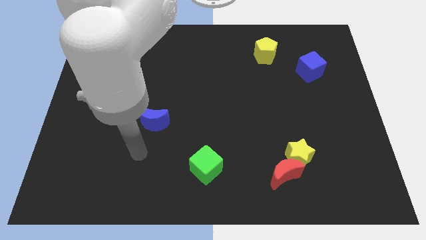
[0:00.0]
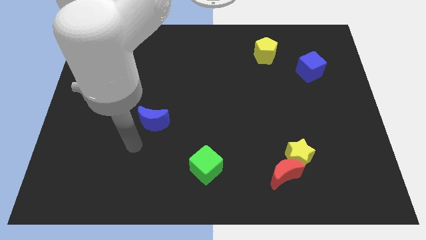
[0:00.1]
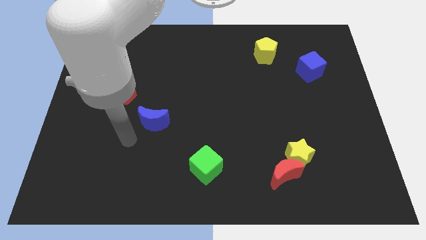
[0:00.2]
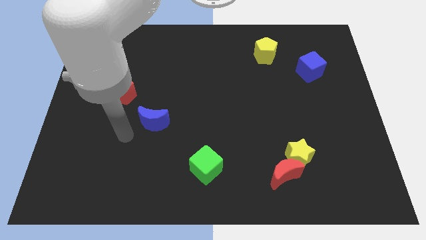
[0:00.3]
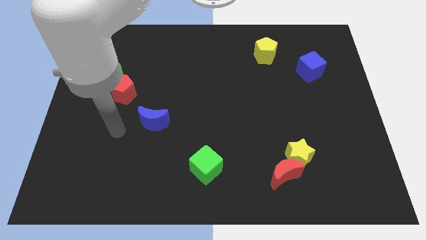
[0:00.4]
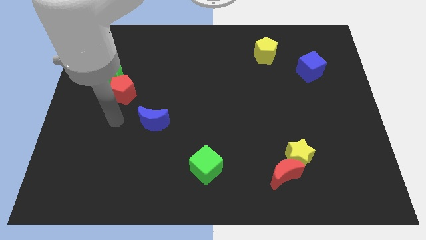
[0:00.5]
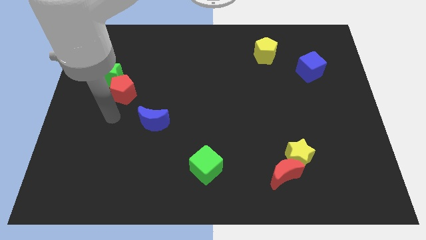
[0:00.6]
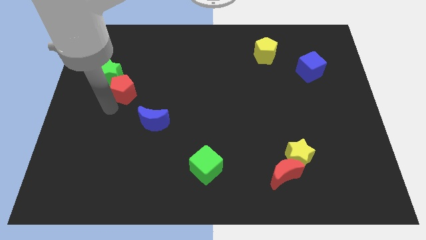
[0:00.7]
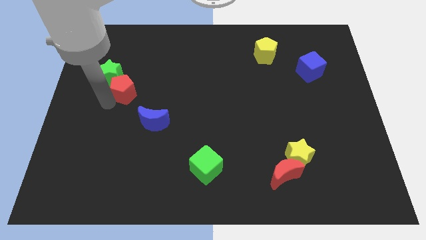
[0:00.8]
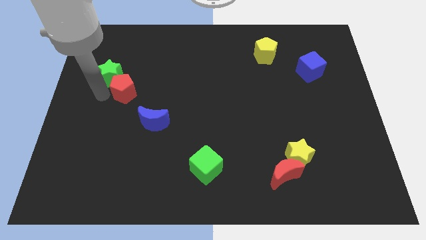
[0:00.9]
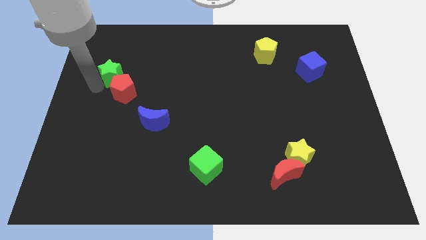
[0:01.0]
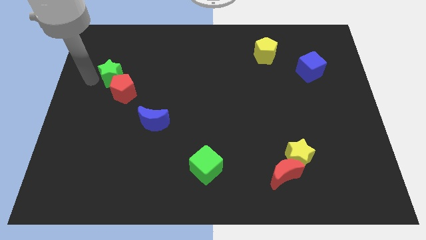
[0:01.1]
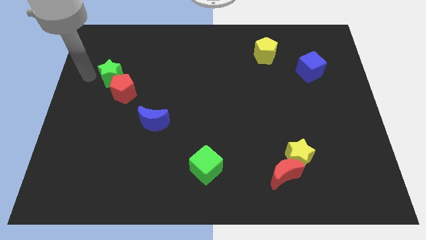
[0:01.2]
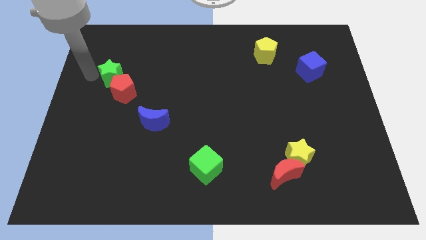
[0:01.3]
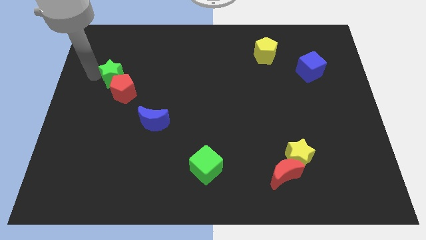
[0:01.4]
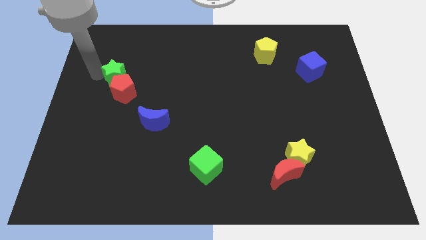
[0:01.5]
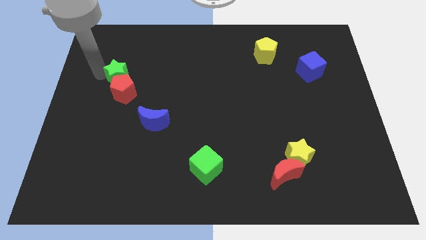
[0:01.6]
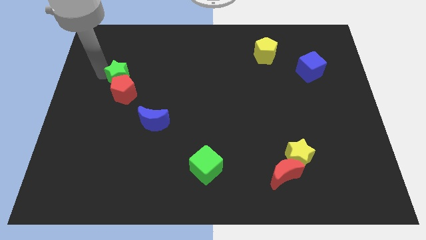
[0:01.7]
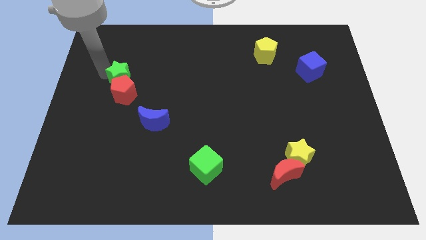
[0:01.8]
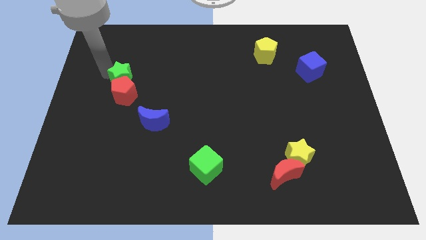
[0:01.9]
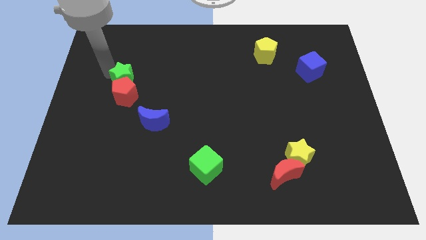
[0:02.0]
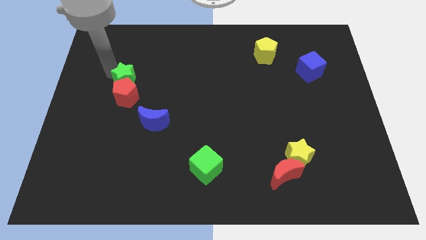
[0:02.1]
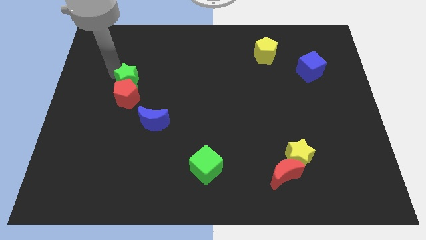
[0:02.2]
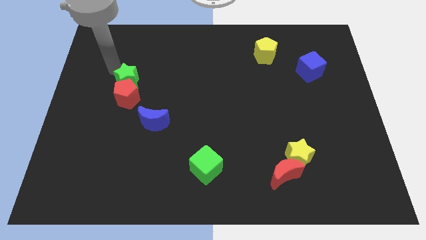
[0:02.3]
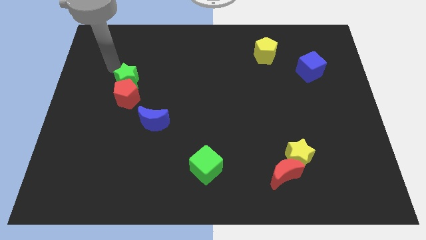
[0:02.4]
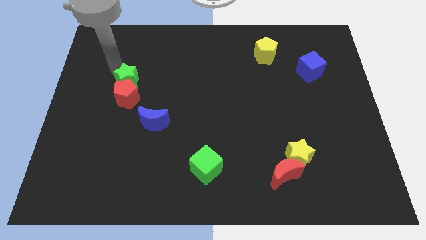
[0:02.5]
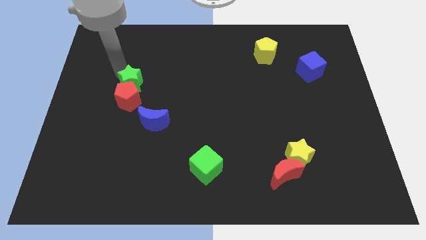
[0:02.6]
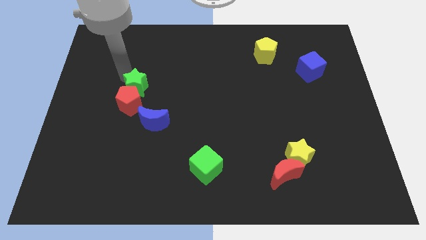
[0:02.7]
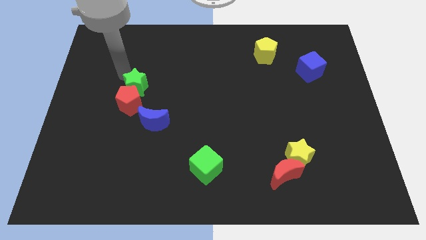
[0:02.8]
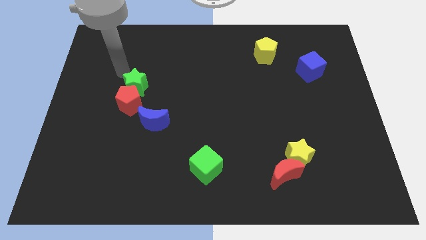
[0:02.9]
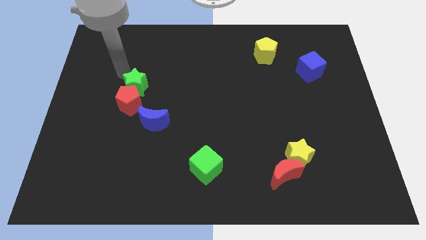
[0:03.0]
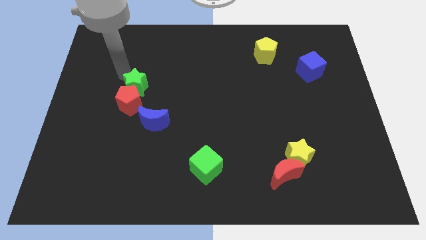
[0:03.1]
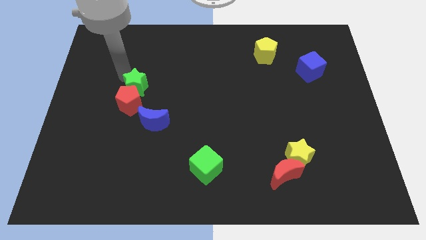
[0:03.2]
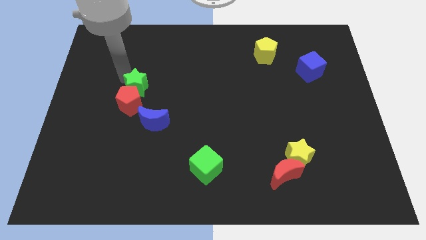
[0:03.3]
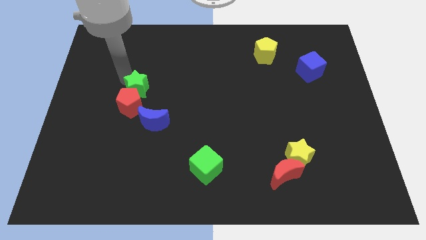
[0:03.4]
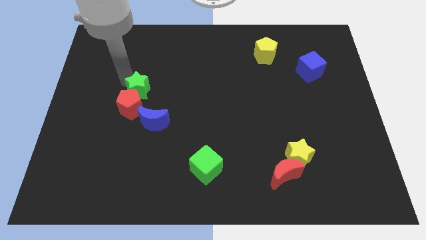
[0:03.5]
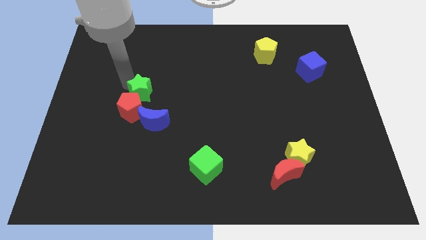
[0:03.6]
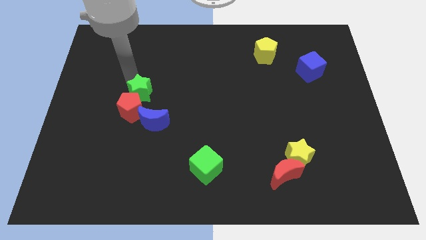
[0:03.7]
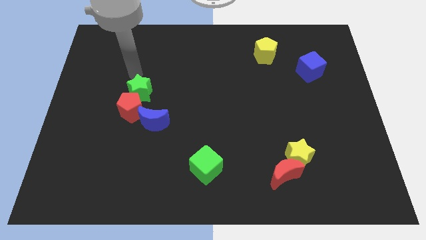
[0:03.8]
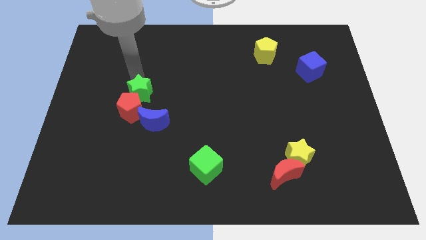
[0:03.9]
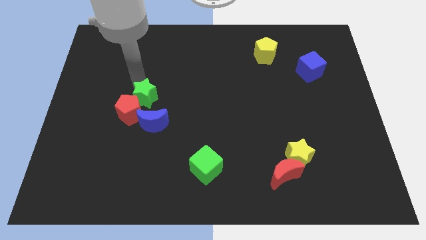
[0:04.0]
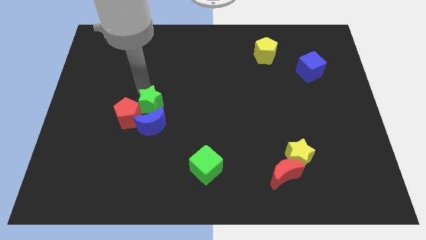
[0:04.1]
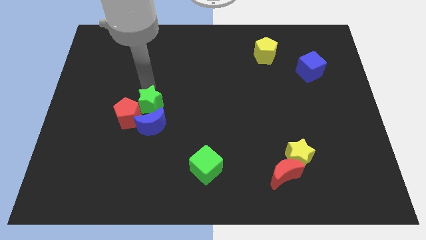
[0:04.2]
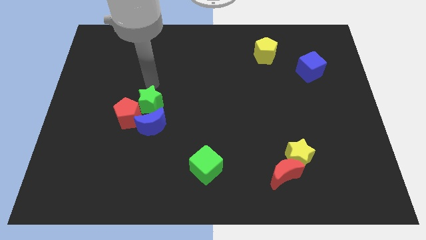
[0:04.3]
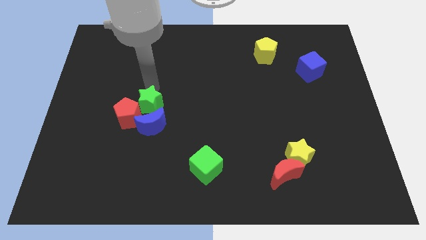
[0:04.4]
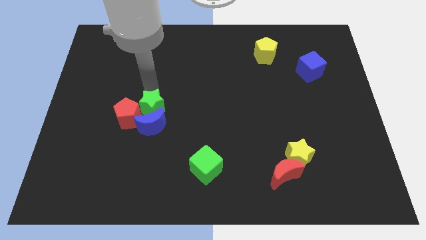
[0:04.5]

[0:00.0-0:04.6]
put the green star to the blue moon

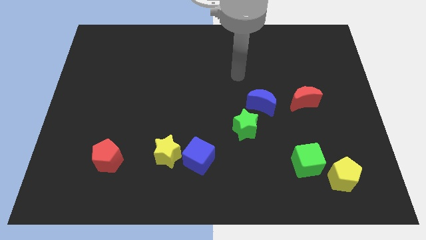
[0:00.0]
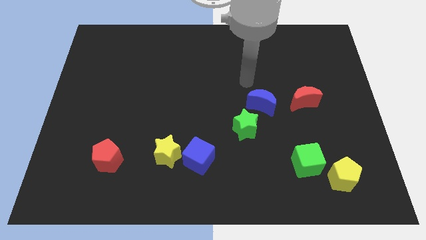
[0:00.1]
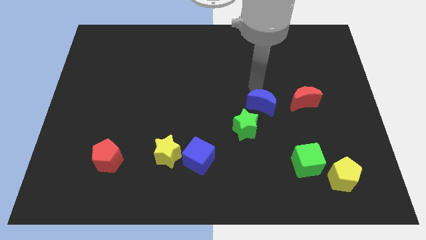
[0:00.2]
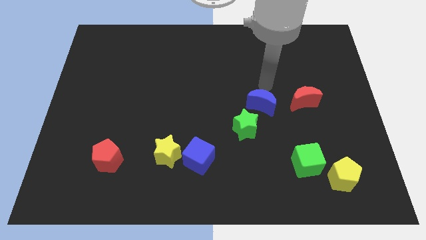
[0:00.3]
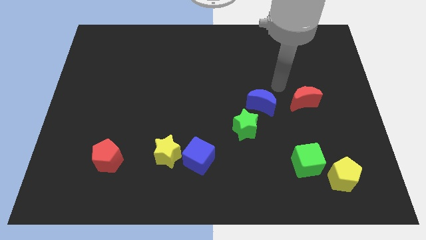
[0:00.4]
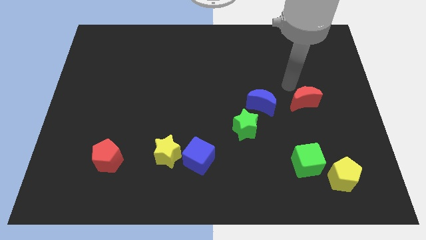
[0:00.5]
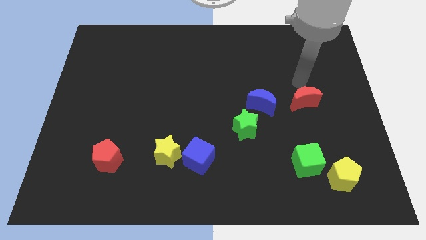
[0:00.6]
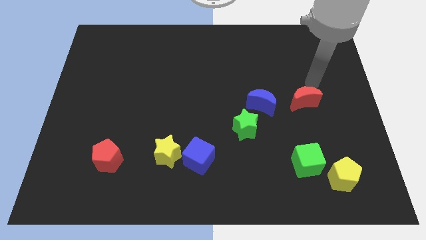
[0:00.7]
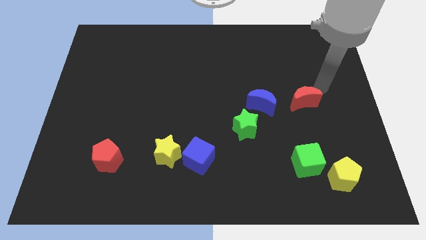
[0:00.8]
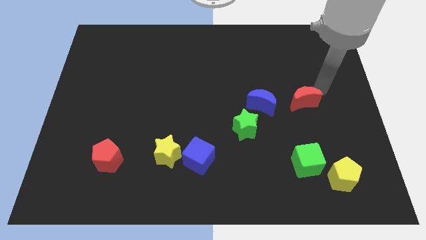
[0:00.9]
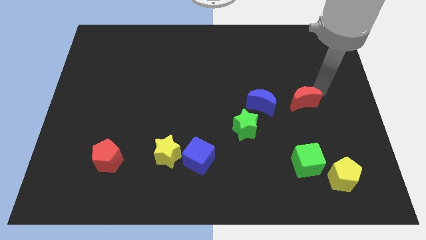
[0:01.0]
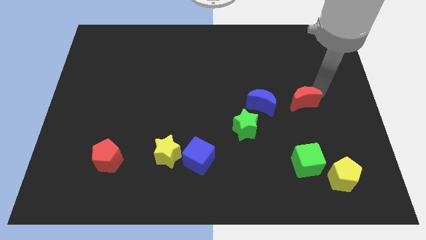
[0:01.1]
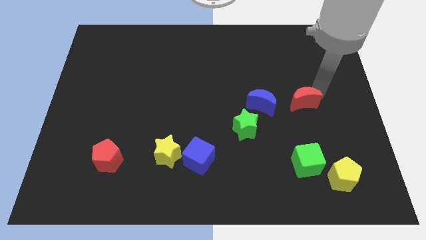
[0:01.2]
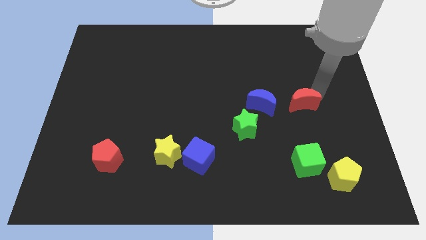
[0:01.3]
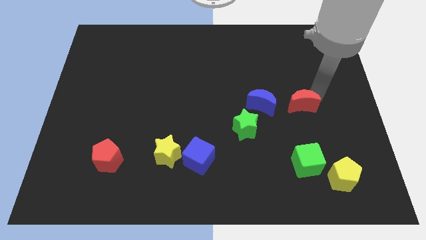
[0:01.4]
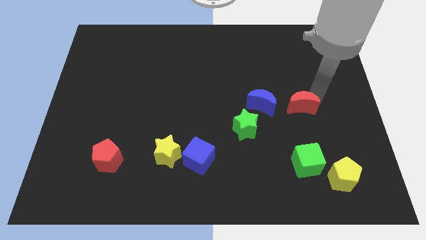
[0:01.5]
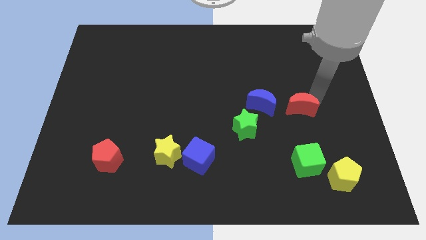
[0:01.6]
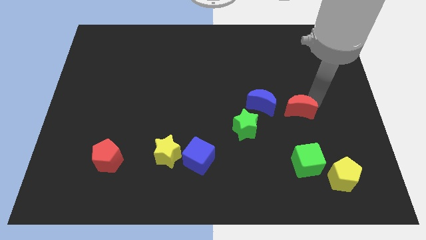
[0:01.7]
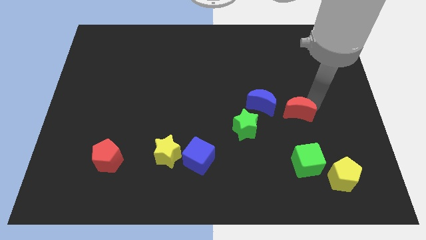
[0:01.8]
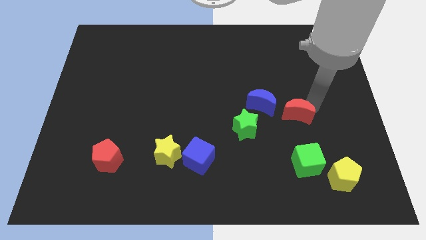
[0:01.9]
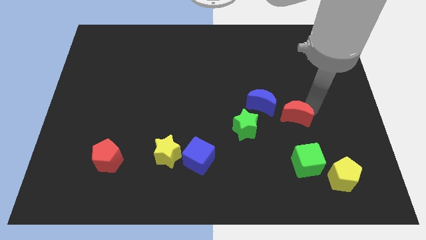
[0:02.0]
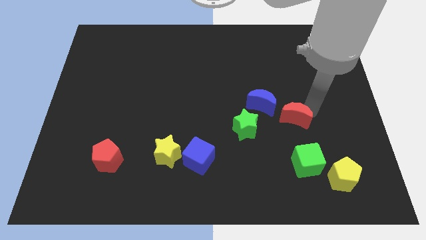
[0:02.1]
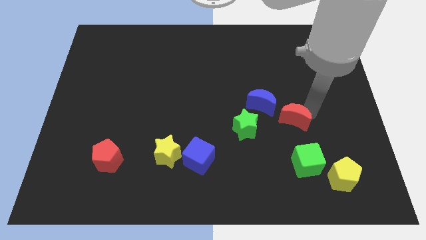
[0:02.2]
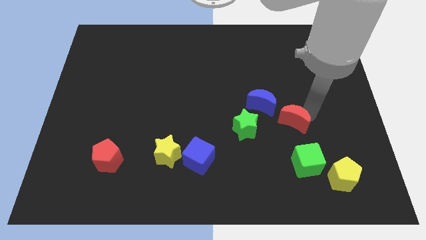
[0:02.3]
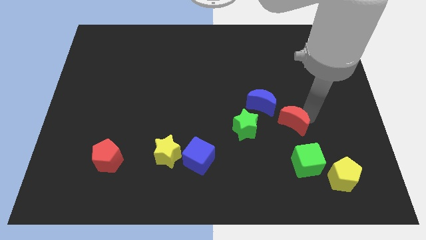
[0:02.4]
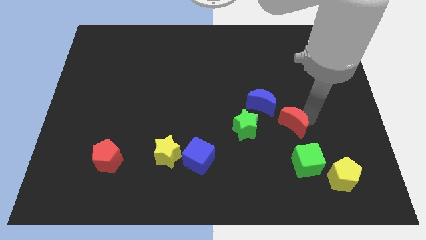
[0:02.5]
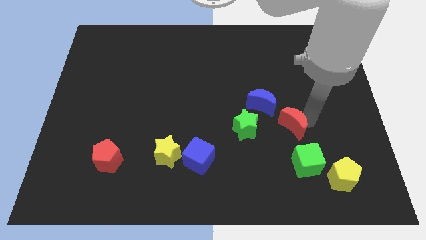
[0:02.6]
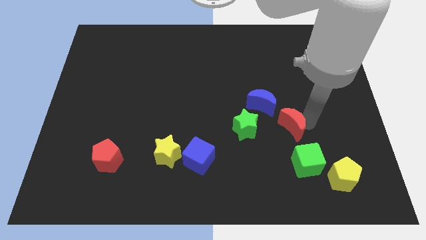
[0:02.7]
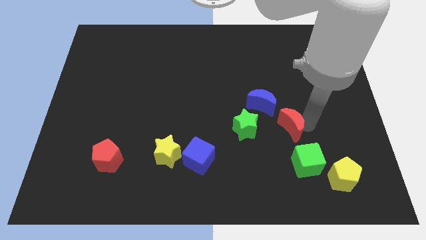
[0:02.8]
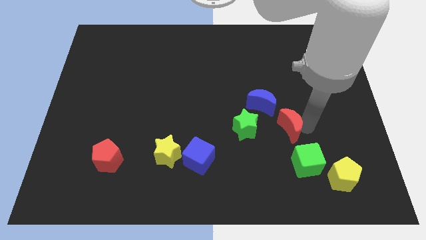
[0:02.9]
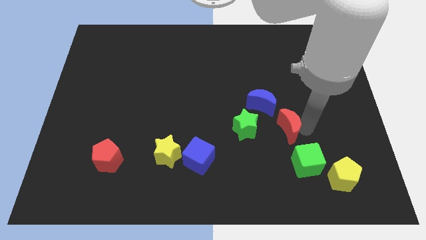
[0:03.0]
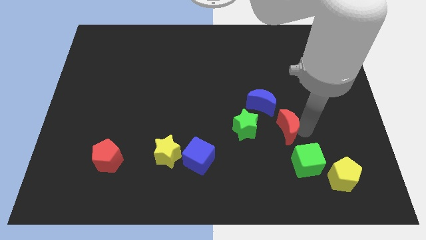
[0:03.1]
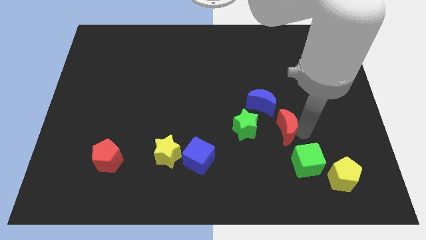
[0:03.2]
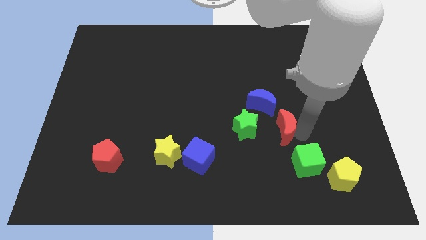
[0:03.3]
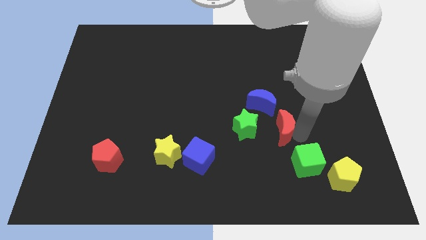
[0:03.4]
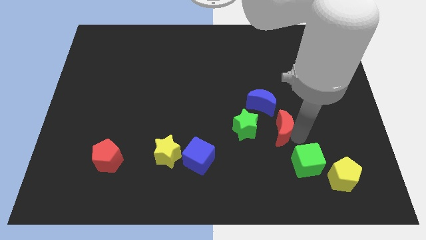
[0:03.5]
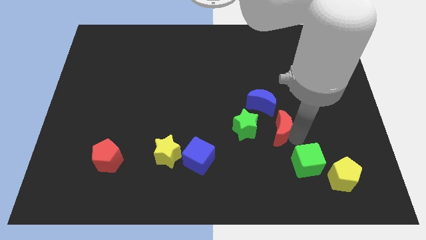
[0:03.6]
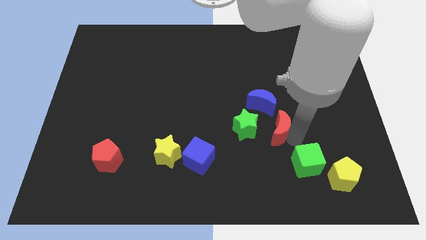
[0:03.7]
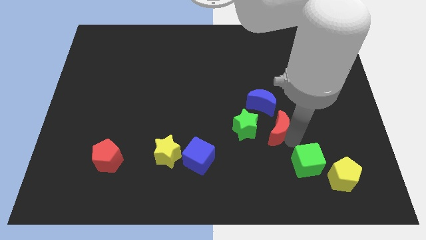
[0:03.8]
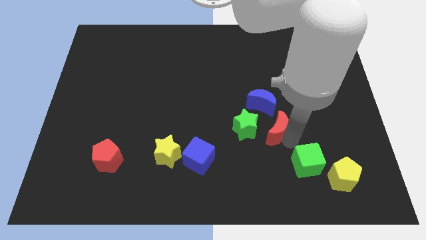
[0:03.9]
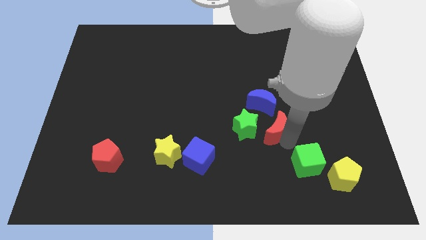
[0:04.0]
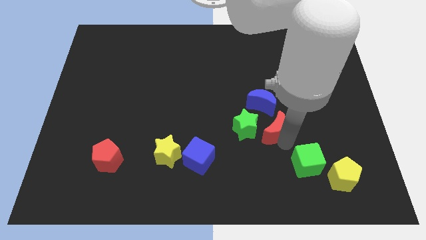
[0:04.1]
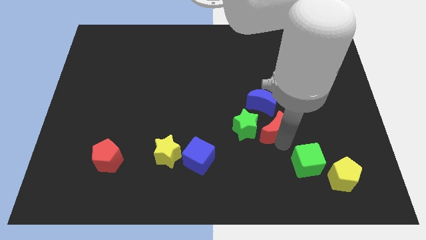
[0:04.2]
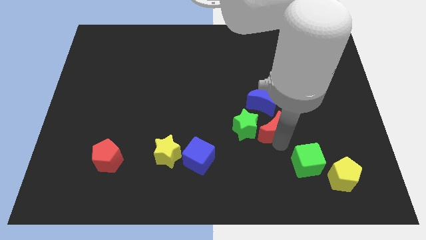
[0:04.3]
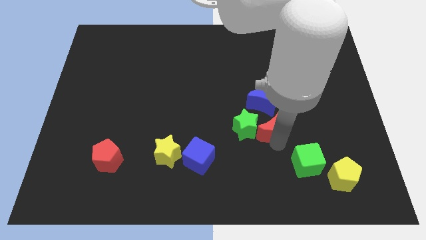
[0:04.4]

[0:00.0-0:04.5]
slide the red moon to the green star
